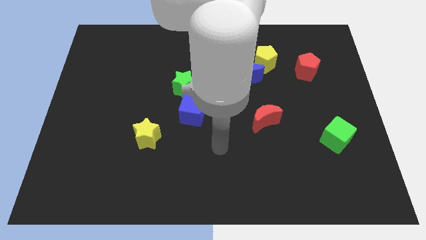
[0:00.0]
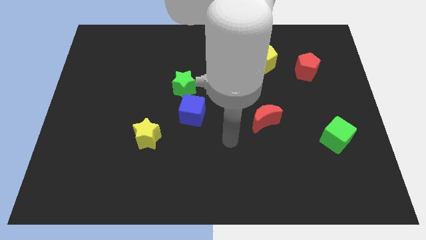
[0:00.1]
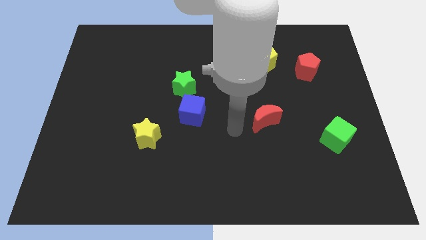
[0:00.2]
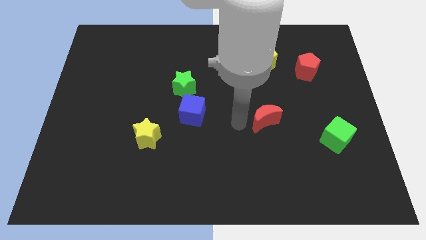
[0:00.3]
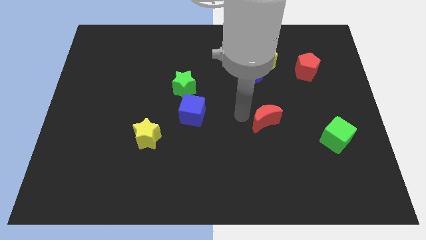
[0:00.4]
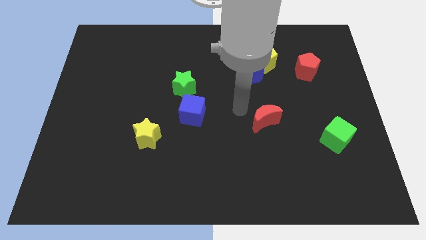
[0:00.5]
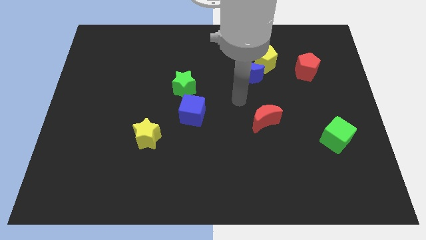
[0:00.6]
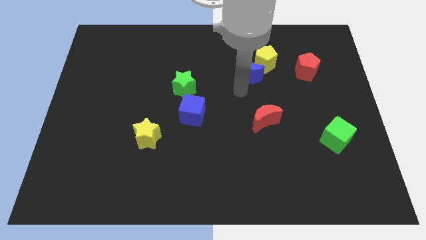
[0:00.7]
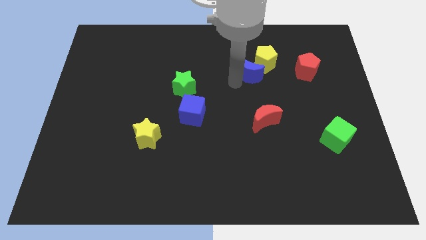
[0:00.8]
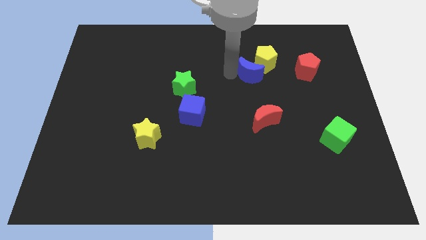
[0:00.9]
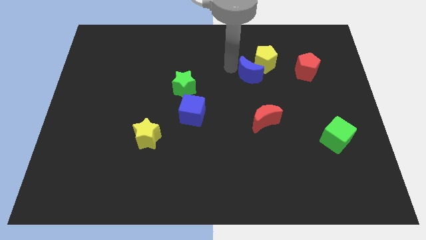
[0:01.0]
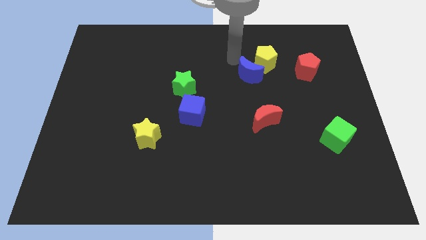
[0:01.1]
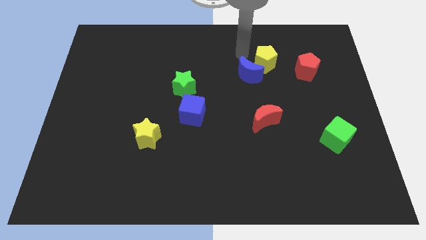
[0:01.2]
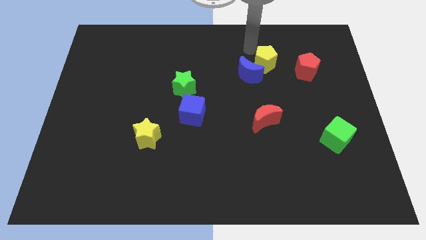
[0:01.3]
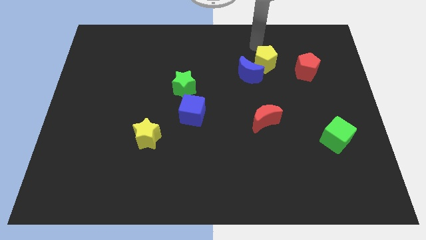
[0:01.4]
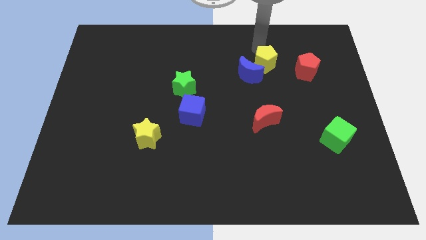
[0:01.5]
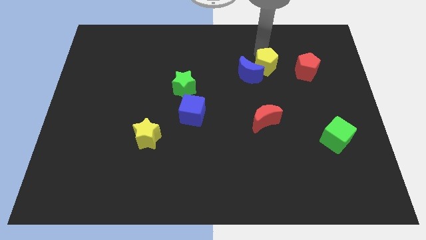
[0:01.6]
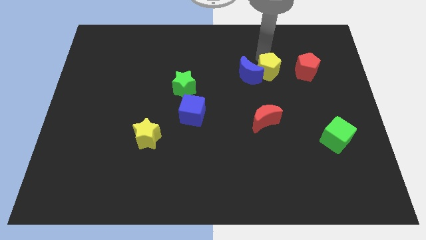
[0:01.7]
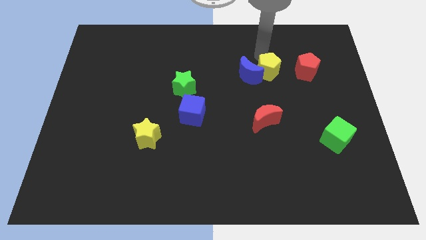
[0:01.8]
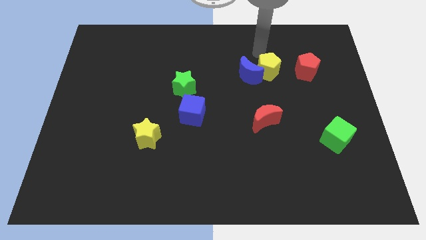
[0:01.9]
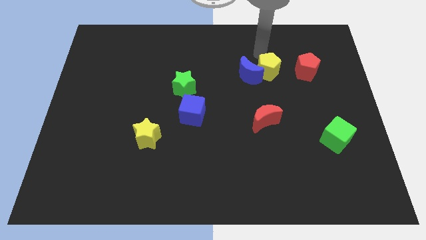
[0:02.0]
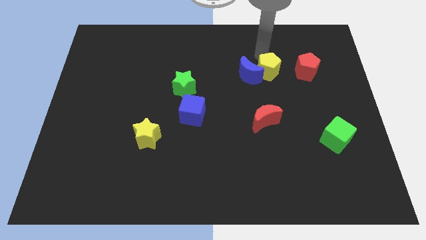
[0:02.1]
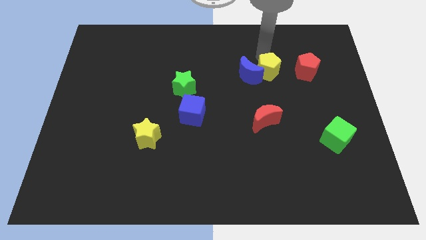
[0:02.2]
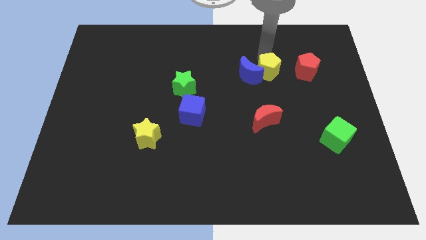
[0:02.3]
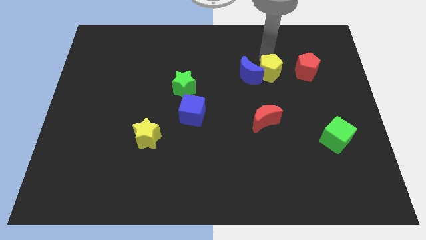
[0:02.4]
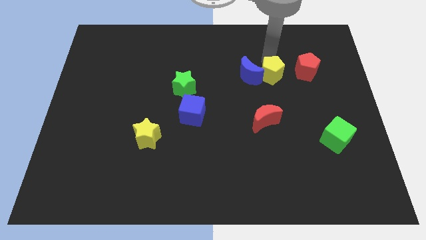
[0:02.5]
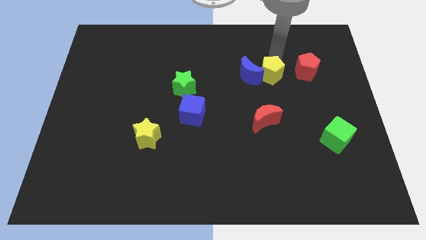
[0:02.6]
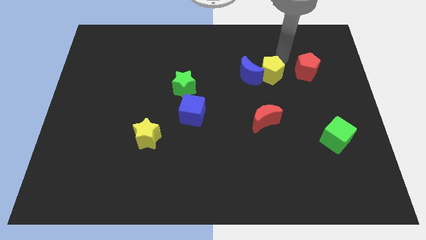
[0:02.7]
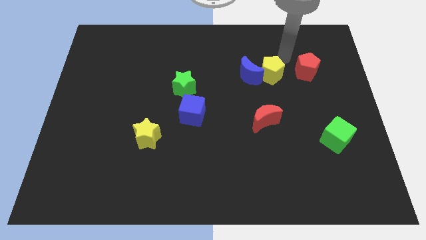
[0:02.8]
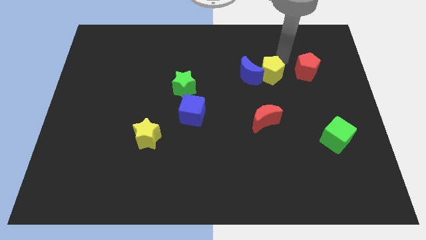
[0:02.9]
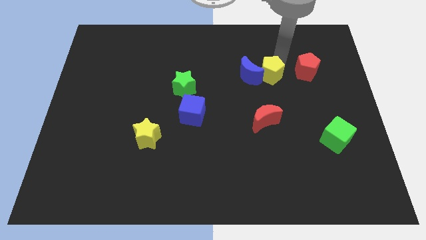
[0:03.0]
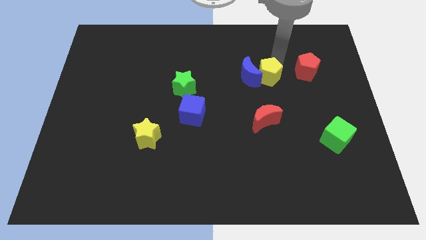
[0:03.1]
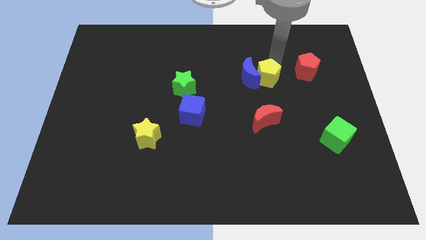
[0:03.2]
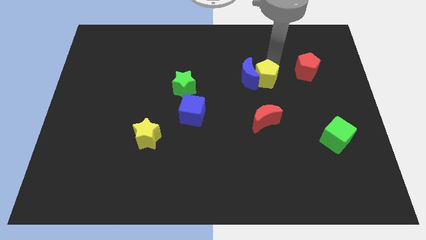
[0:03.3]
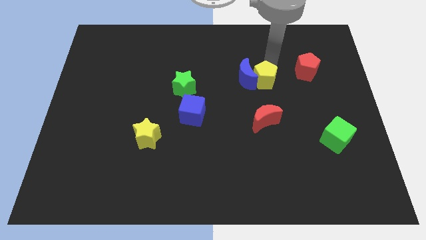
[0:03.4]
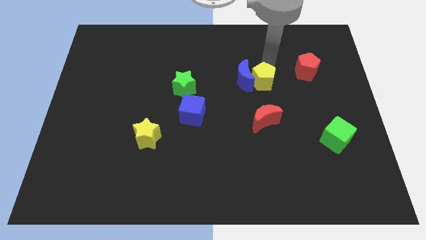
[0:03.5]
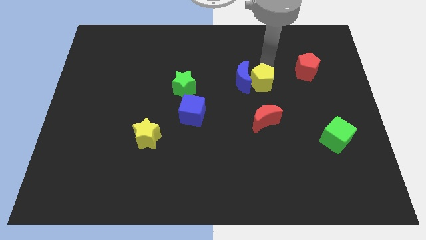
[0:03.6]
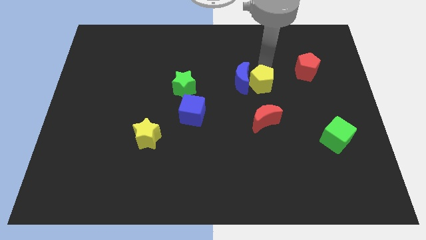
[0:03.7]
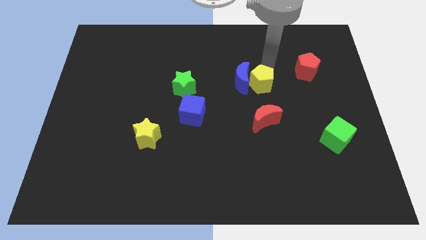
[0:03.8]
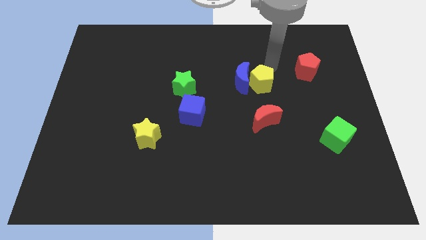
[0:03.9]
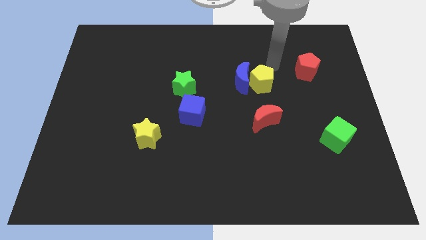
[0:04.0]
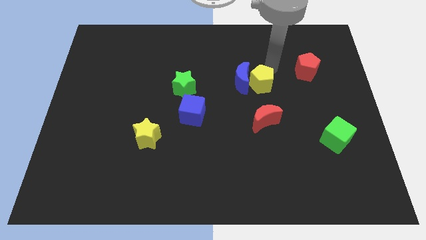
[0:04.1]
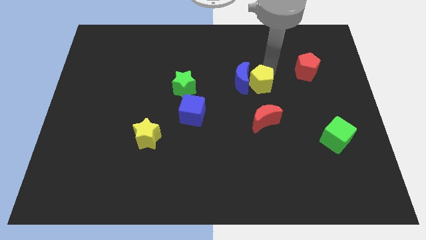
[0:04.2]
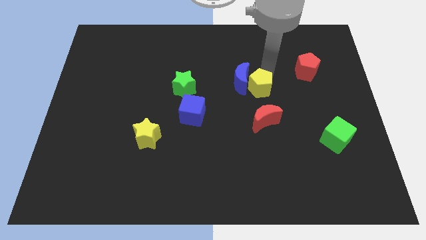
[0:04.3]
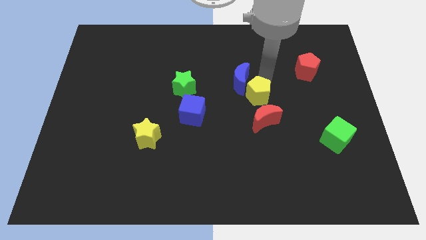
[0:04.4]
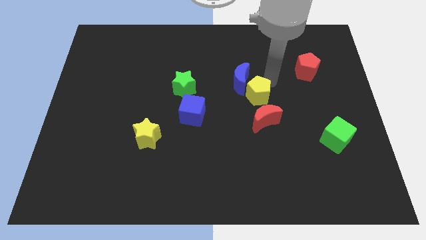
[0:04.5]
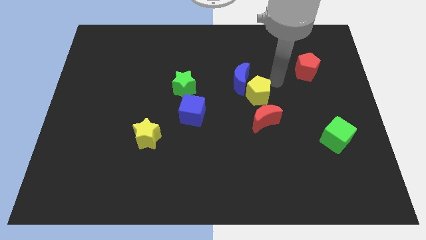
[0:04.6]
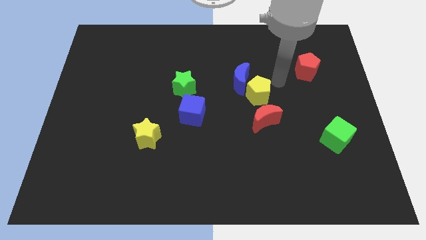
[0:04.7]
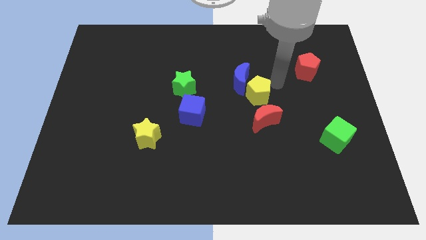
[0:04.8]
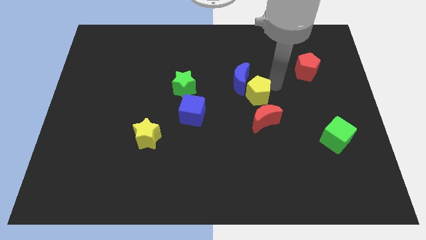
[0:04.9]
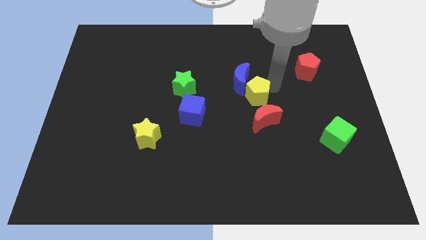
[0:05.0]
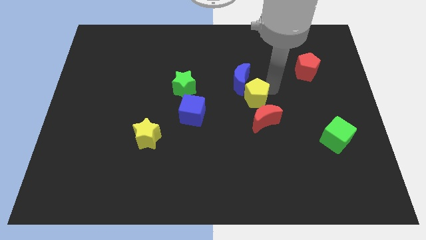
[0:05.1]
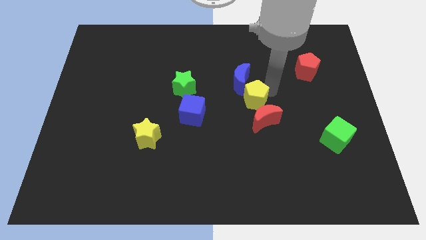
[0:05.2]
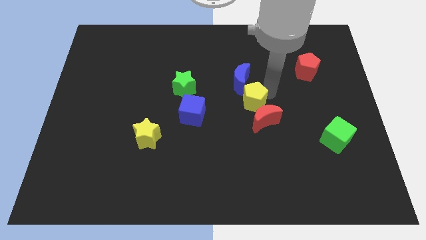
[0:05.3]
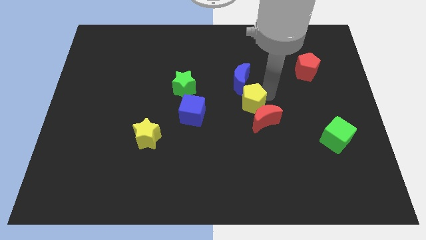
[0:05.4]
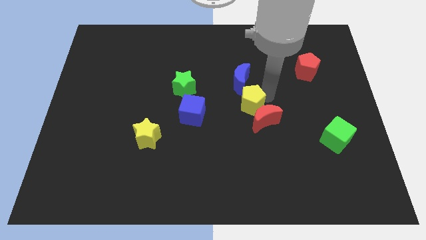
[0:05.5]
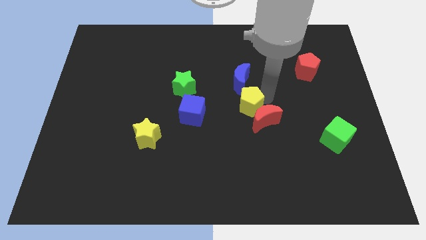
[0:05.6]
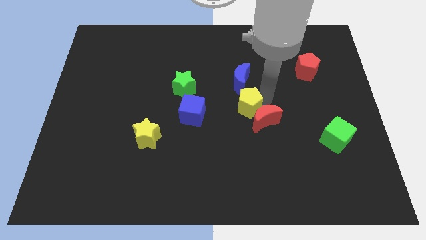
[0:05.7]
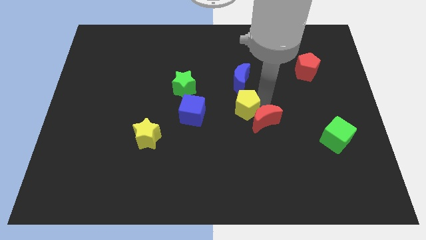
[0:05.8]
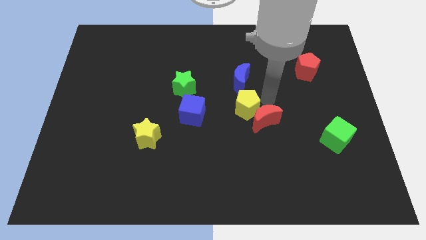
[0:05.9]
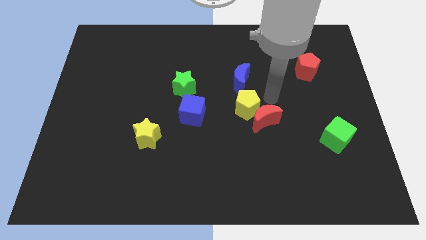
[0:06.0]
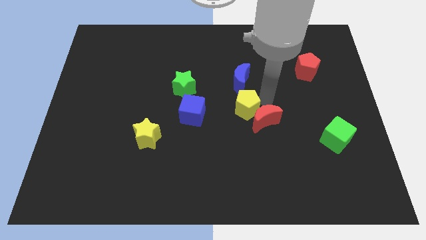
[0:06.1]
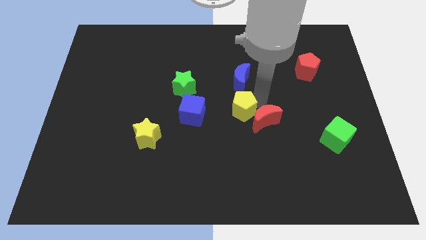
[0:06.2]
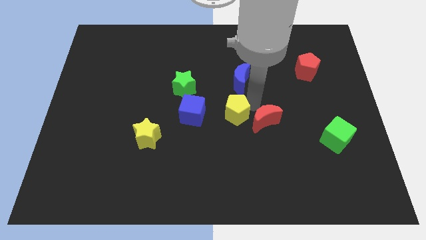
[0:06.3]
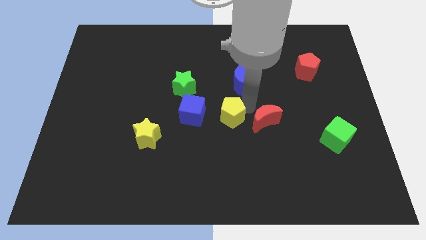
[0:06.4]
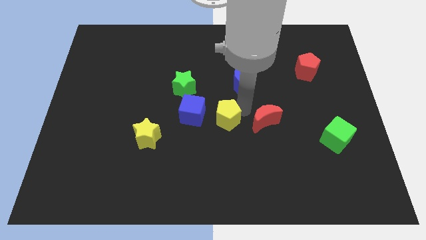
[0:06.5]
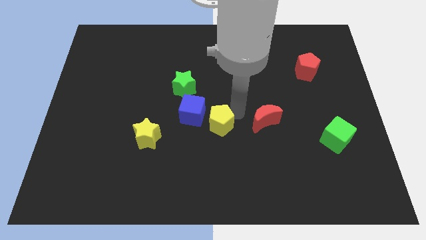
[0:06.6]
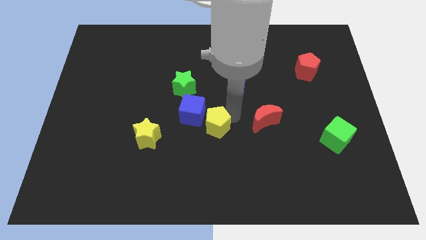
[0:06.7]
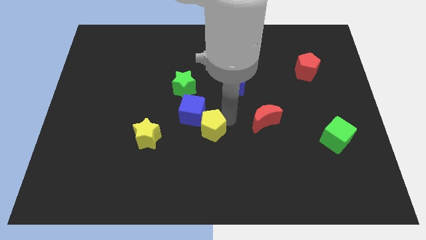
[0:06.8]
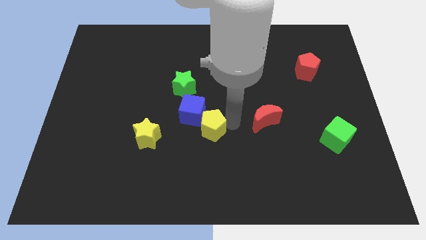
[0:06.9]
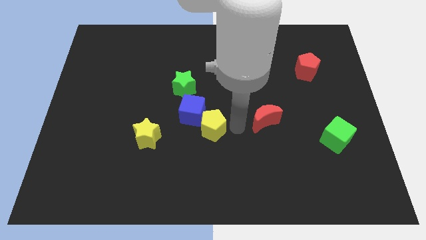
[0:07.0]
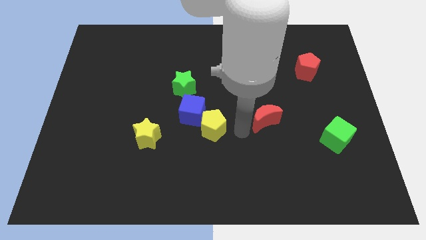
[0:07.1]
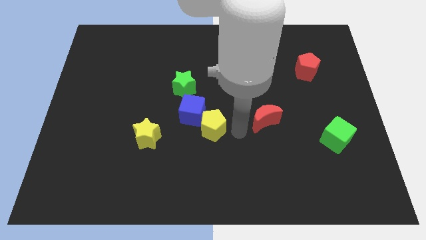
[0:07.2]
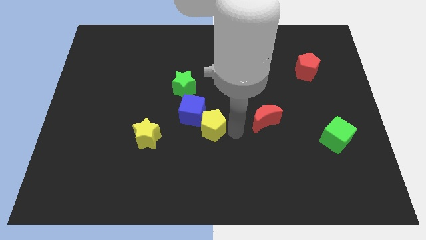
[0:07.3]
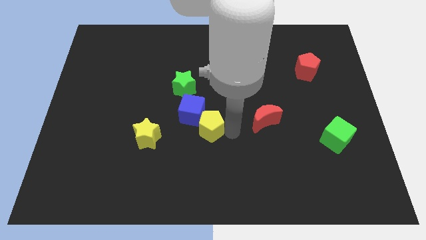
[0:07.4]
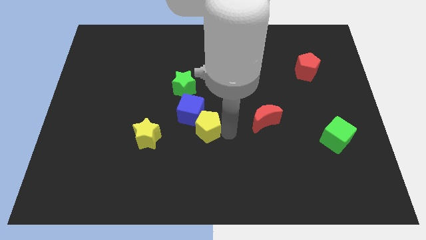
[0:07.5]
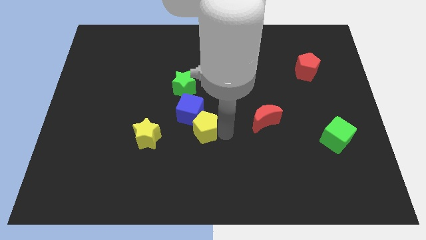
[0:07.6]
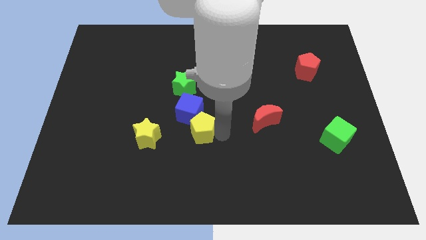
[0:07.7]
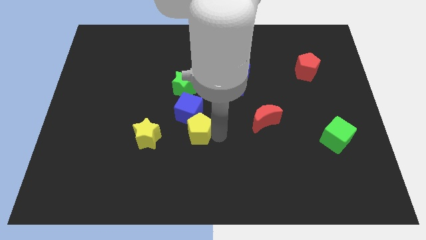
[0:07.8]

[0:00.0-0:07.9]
slide the yellow pentagon to the bottom side of the green star

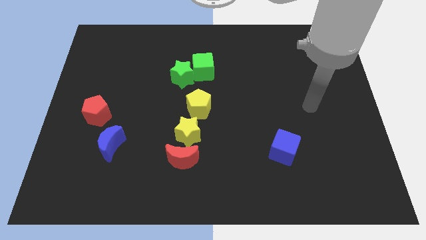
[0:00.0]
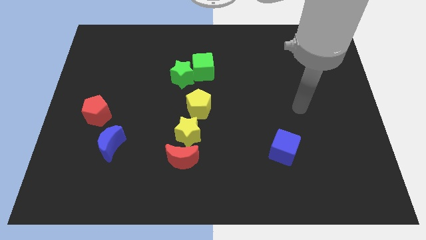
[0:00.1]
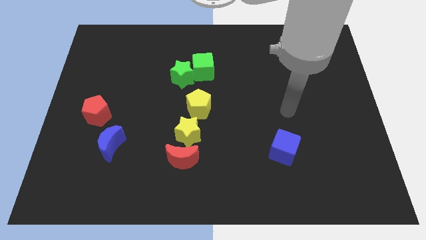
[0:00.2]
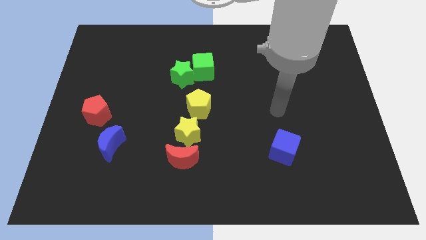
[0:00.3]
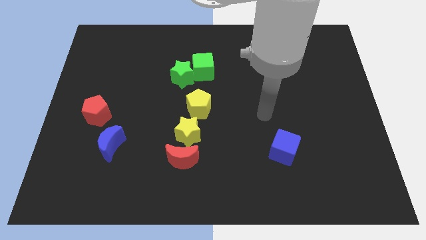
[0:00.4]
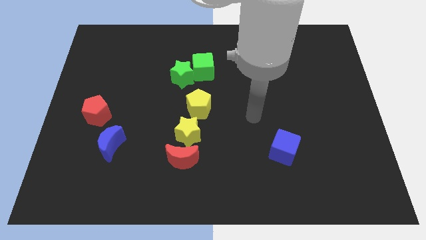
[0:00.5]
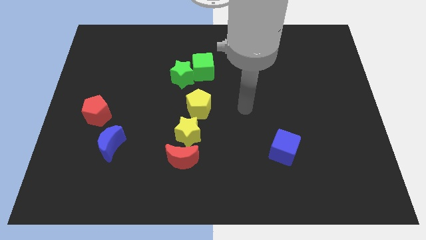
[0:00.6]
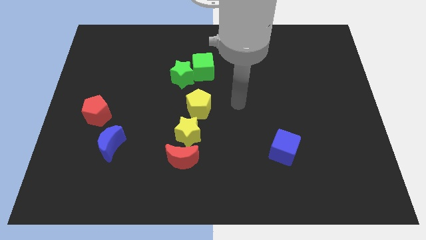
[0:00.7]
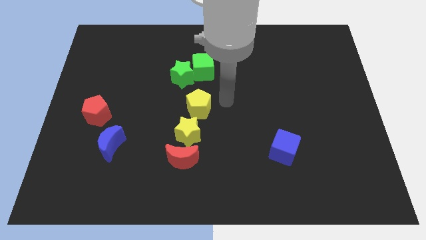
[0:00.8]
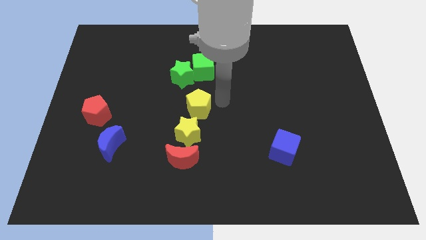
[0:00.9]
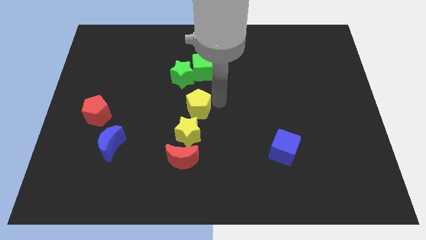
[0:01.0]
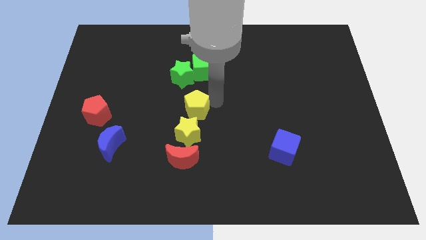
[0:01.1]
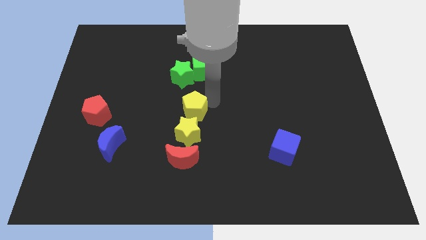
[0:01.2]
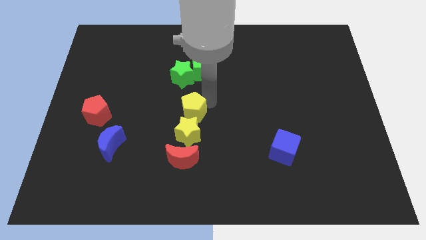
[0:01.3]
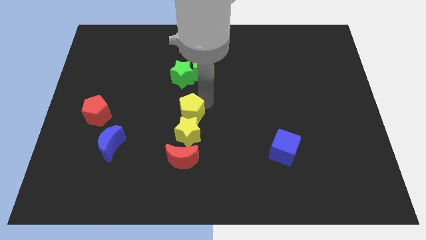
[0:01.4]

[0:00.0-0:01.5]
put the yellow pentagon to the top left side of the yellow star
